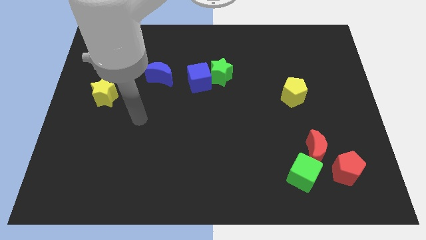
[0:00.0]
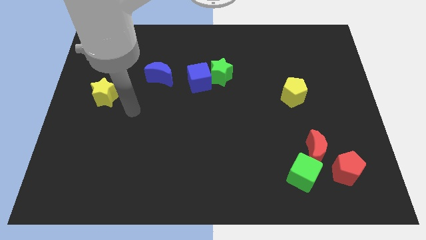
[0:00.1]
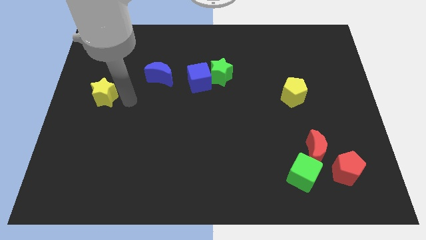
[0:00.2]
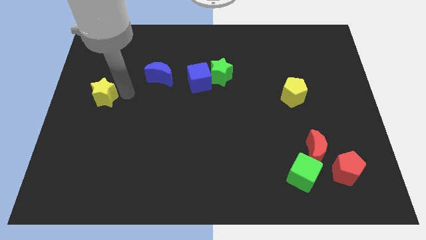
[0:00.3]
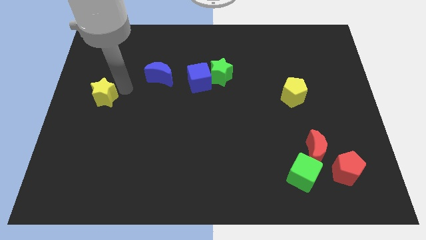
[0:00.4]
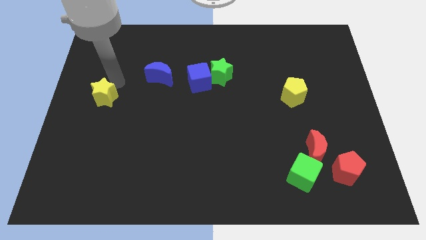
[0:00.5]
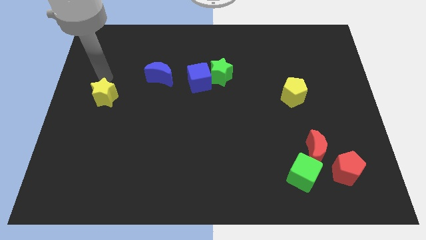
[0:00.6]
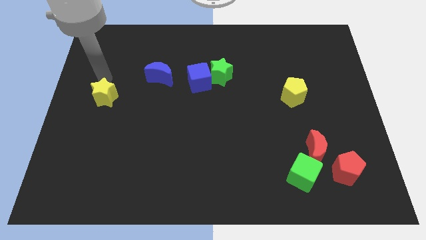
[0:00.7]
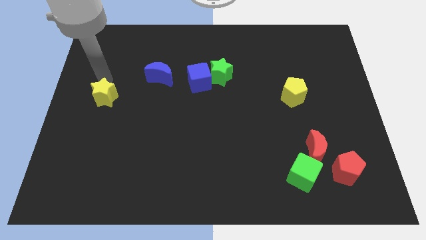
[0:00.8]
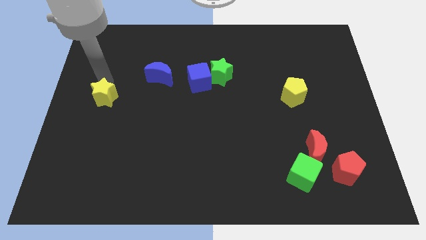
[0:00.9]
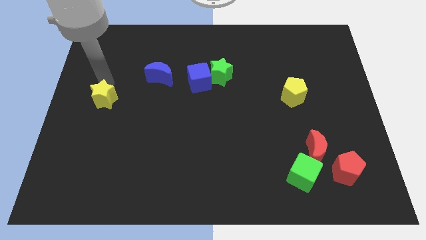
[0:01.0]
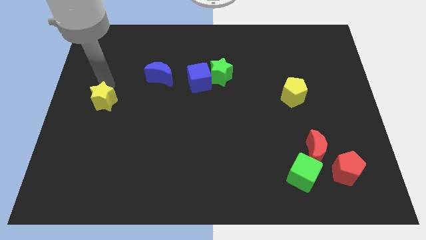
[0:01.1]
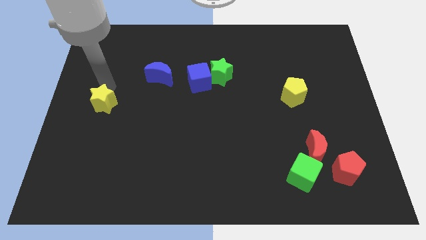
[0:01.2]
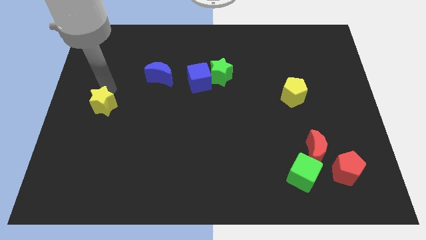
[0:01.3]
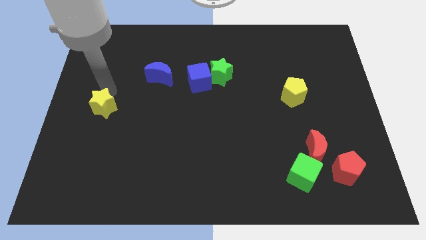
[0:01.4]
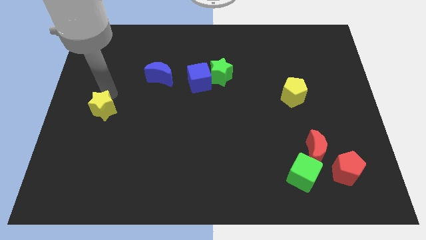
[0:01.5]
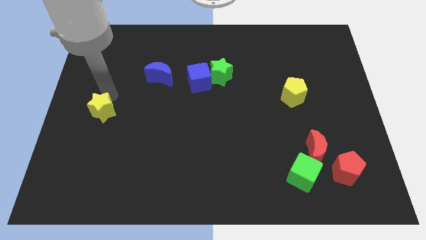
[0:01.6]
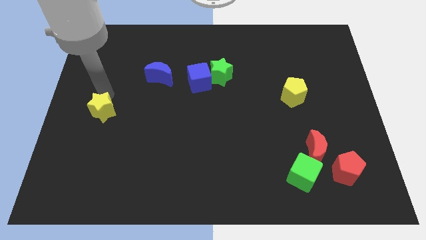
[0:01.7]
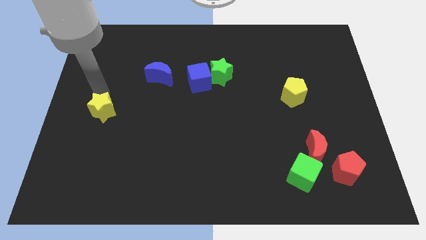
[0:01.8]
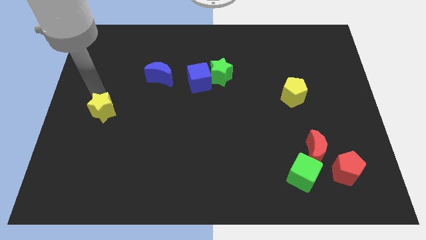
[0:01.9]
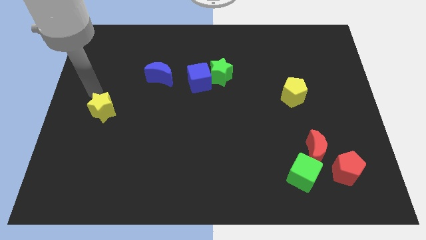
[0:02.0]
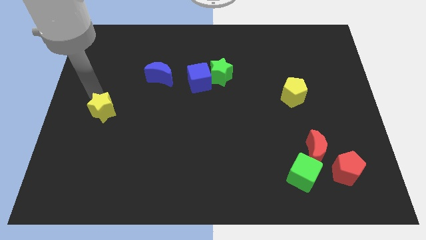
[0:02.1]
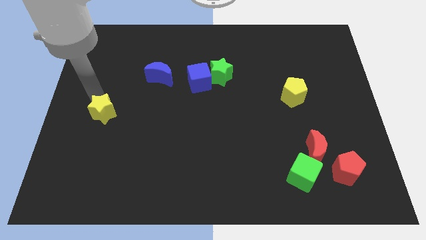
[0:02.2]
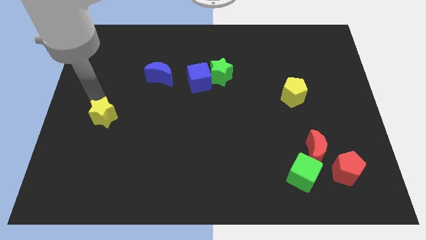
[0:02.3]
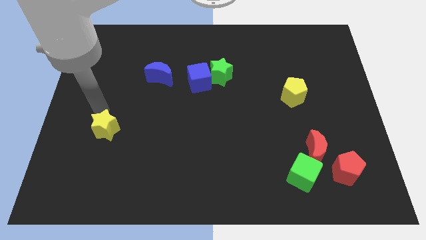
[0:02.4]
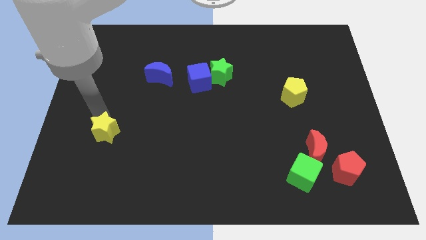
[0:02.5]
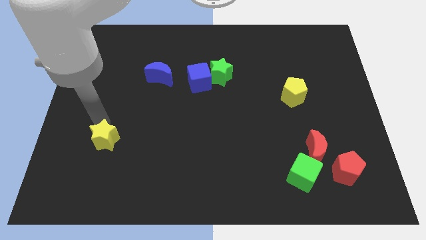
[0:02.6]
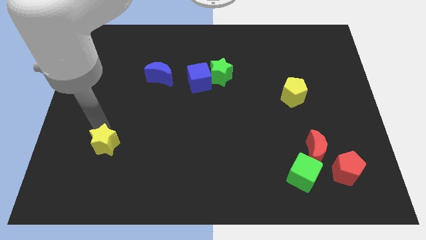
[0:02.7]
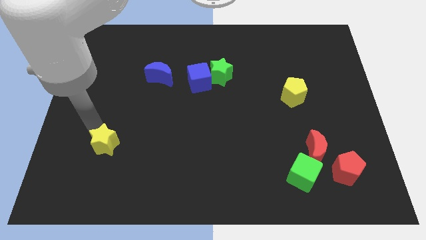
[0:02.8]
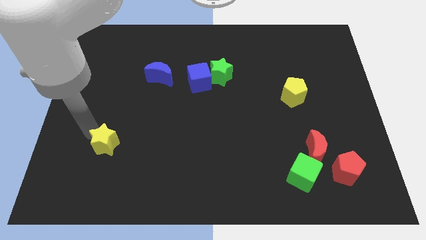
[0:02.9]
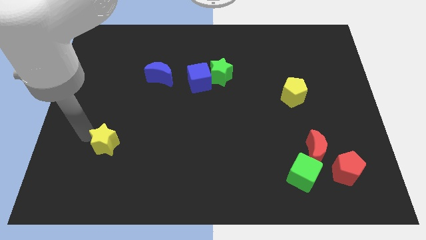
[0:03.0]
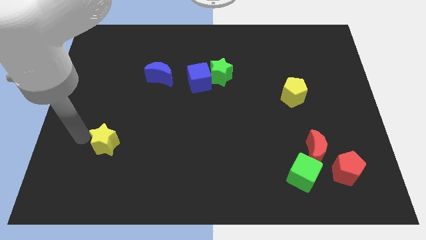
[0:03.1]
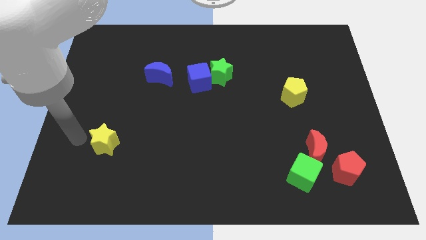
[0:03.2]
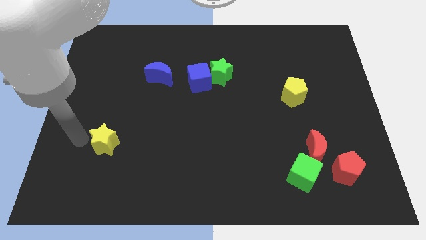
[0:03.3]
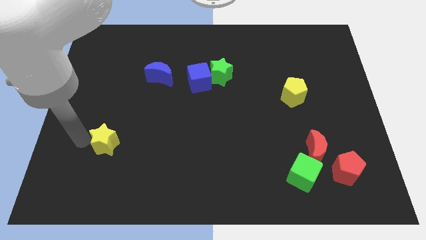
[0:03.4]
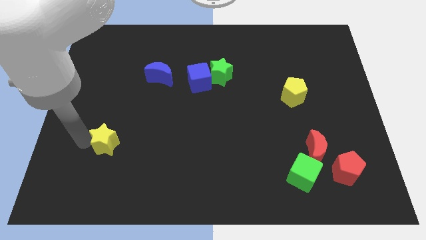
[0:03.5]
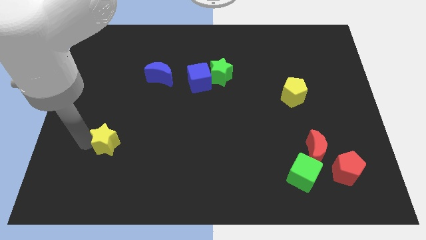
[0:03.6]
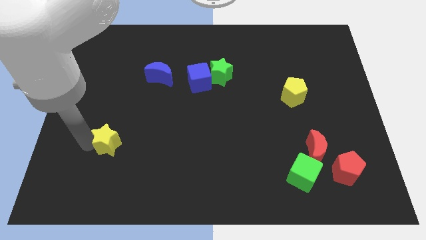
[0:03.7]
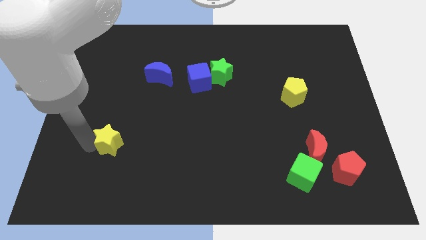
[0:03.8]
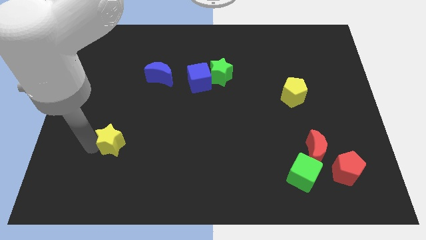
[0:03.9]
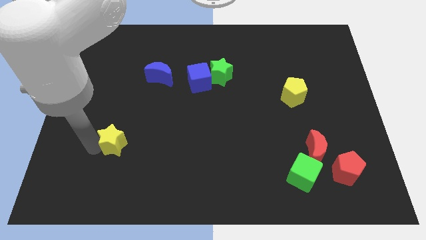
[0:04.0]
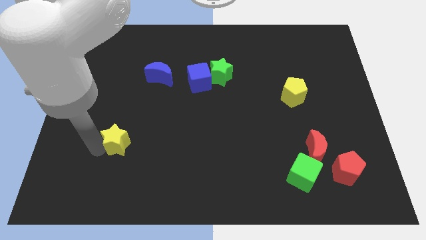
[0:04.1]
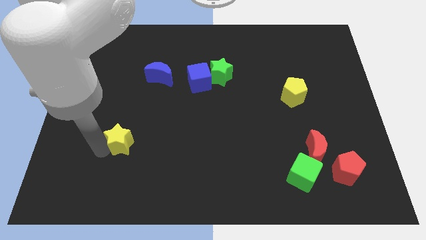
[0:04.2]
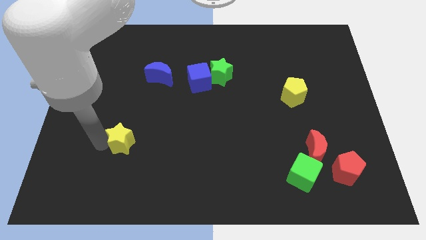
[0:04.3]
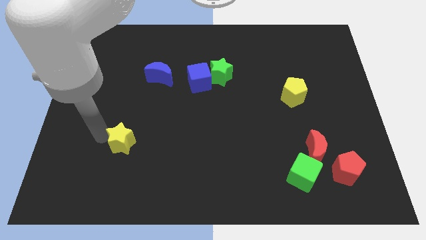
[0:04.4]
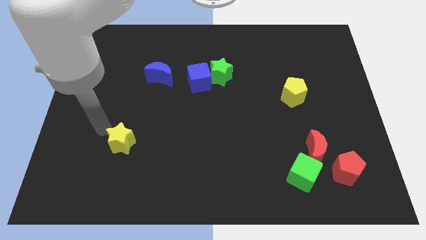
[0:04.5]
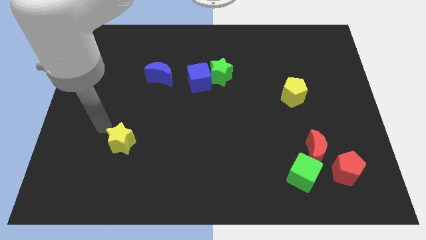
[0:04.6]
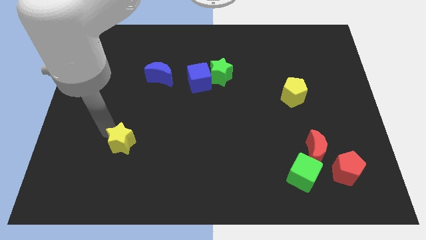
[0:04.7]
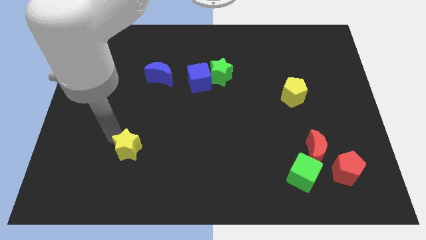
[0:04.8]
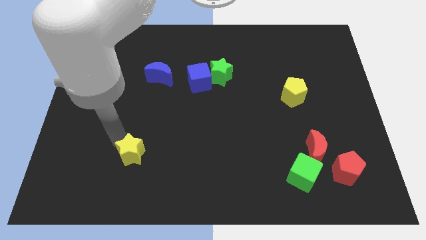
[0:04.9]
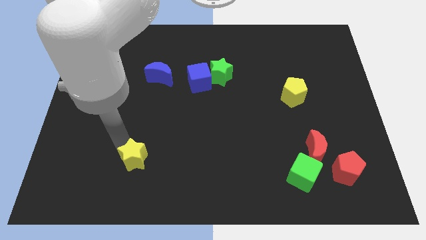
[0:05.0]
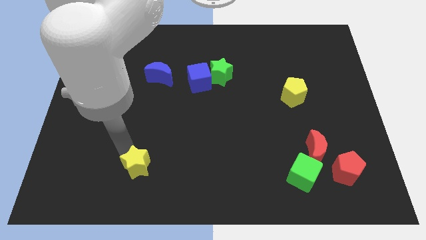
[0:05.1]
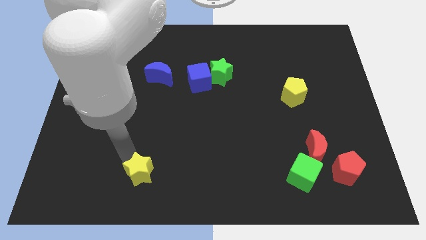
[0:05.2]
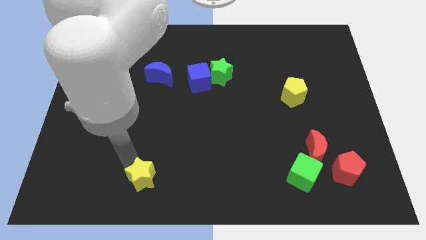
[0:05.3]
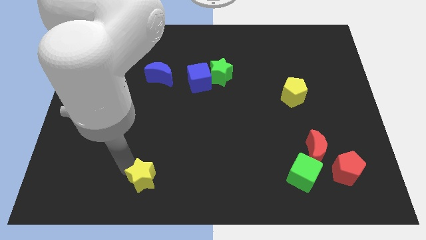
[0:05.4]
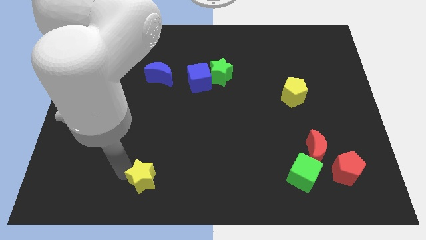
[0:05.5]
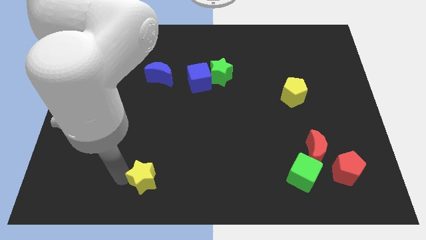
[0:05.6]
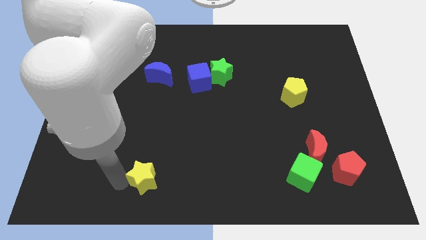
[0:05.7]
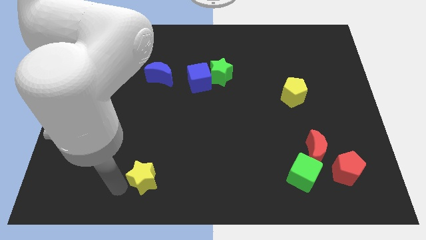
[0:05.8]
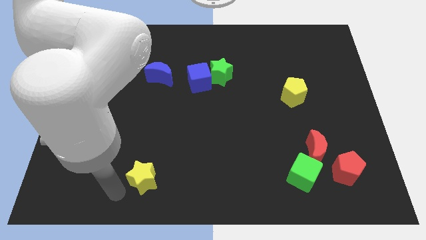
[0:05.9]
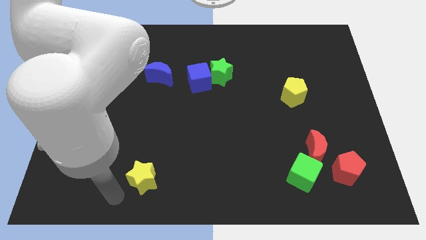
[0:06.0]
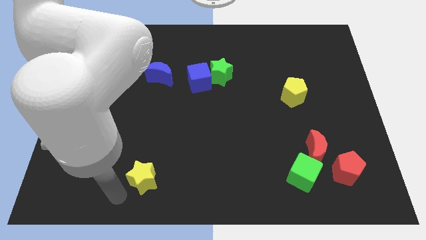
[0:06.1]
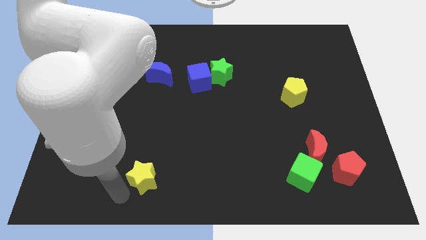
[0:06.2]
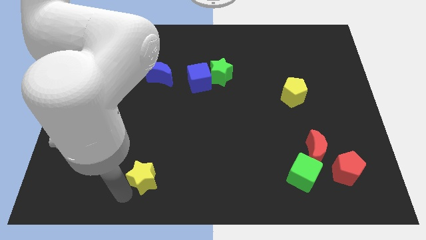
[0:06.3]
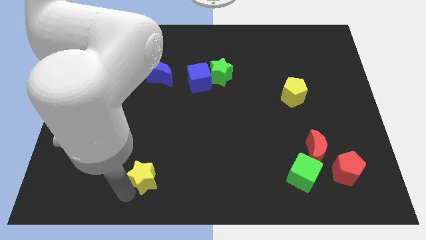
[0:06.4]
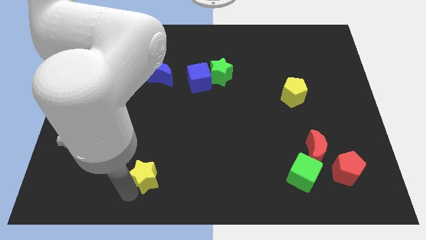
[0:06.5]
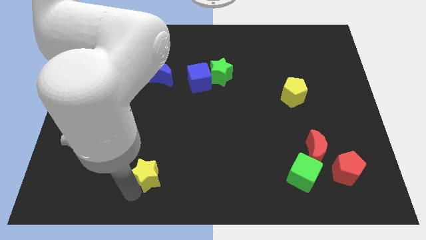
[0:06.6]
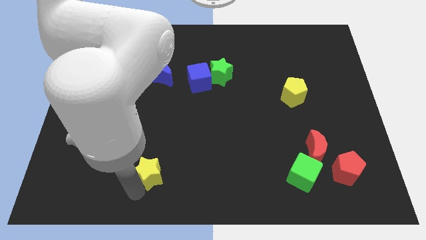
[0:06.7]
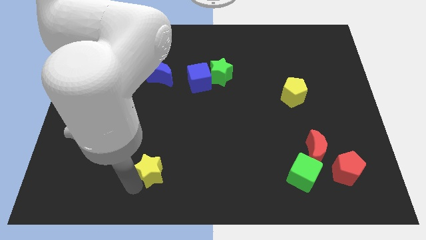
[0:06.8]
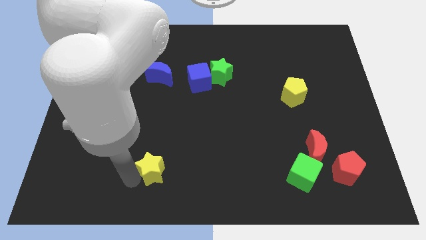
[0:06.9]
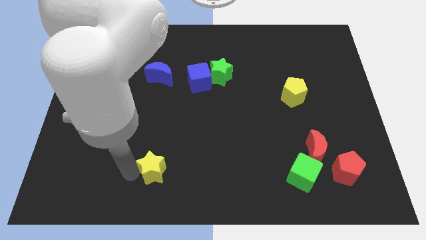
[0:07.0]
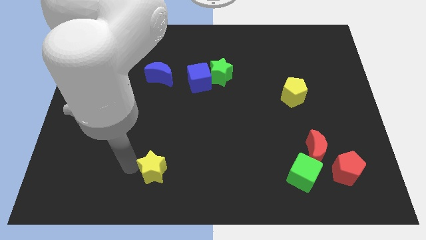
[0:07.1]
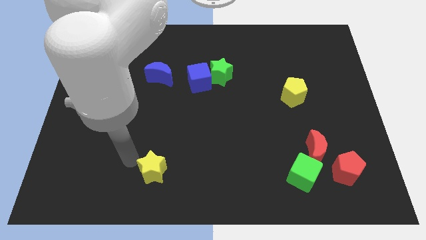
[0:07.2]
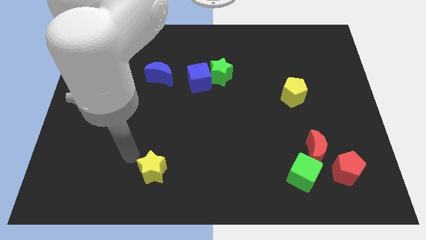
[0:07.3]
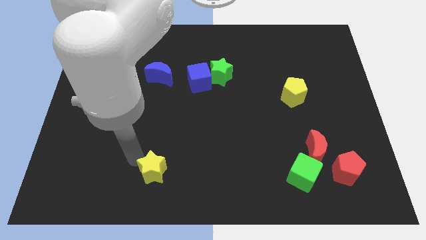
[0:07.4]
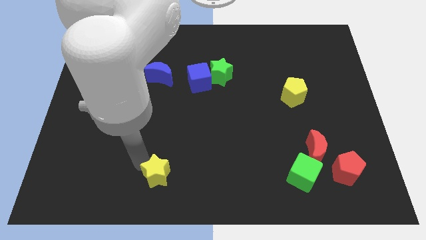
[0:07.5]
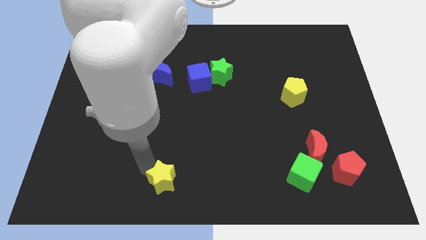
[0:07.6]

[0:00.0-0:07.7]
move the yellow star to the bottom
